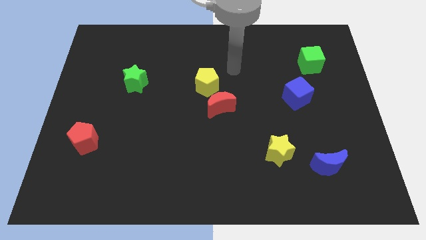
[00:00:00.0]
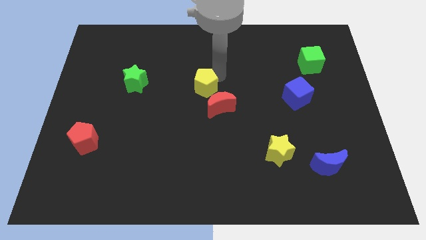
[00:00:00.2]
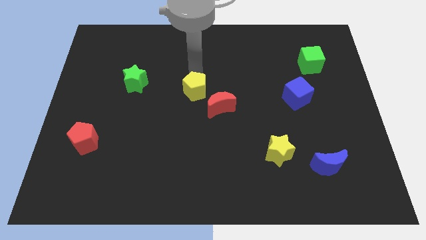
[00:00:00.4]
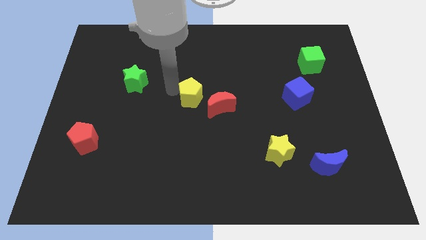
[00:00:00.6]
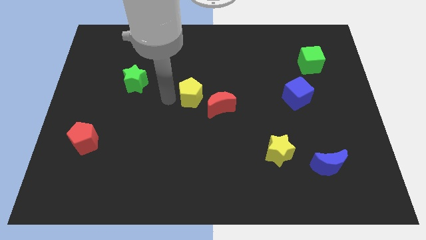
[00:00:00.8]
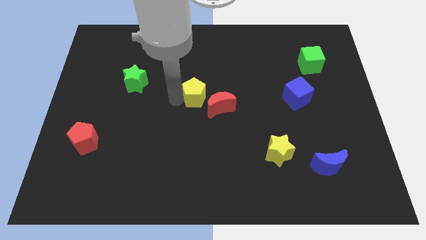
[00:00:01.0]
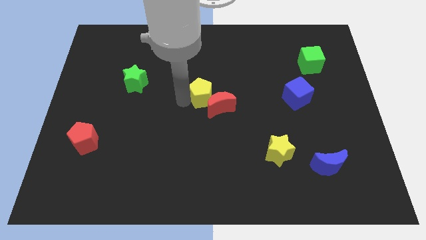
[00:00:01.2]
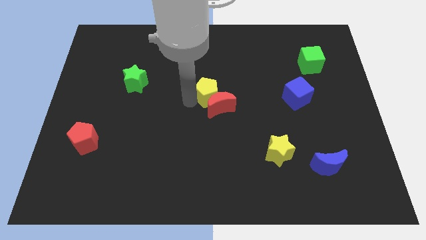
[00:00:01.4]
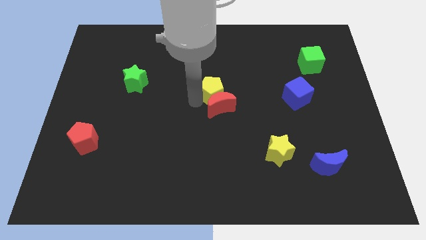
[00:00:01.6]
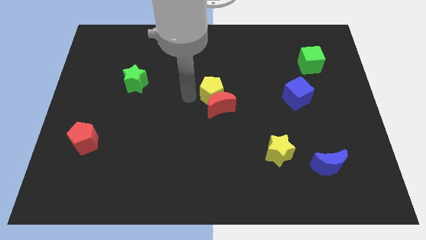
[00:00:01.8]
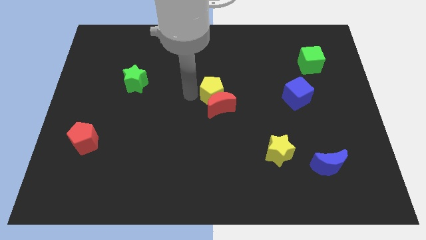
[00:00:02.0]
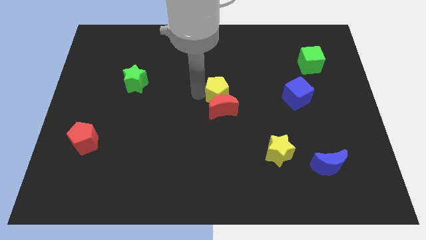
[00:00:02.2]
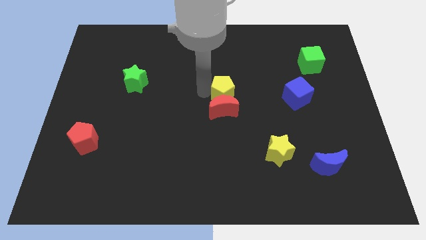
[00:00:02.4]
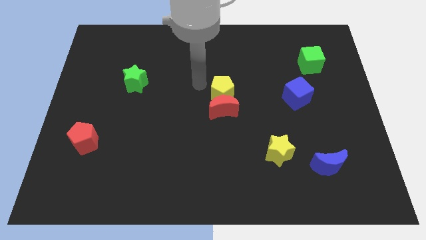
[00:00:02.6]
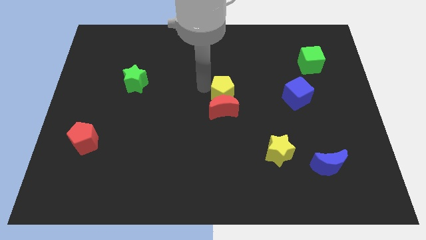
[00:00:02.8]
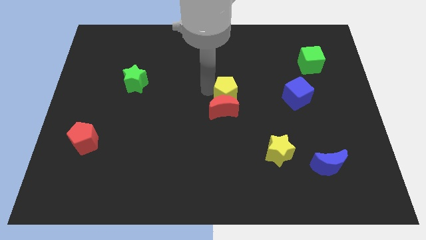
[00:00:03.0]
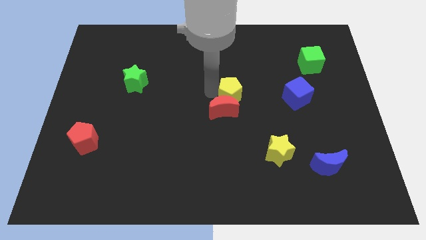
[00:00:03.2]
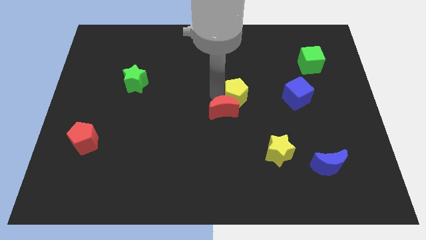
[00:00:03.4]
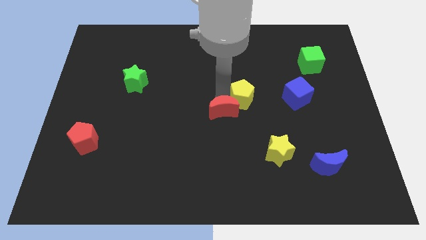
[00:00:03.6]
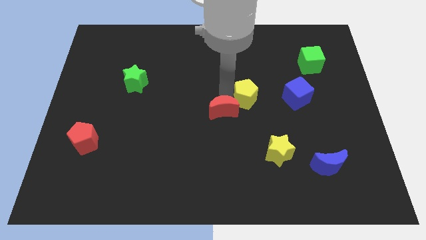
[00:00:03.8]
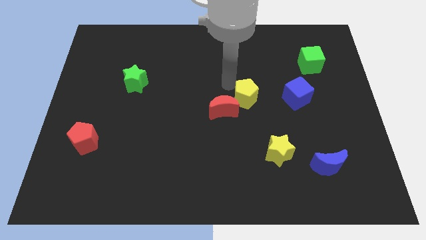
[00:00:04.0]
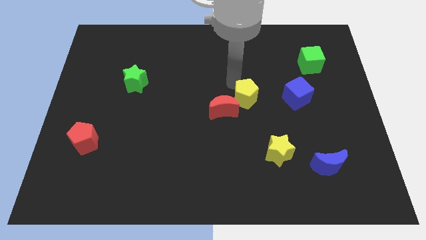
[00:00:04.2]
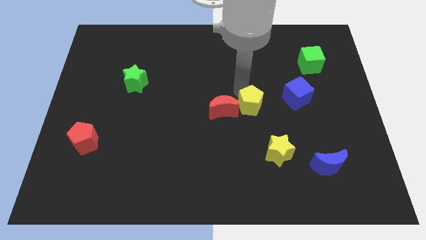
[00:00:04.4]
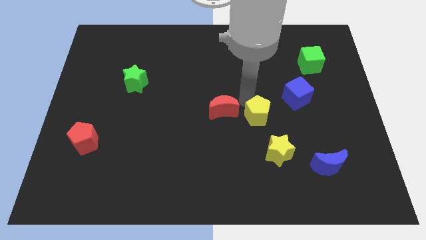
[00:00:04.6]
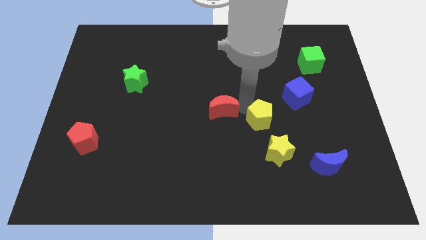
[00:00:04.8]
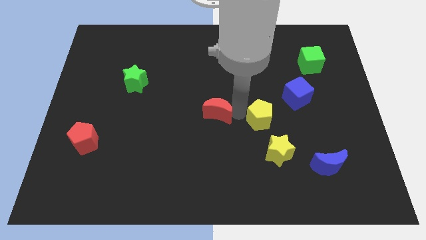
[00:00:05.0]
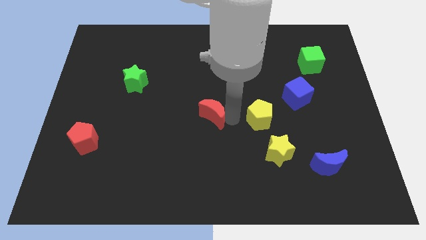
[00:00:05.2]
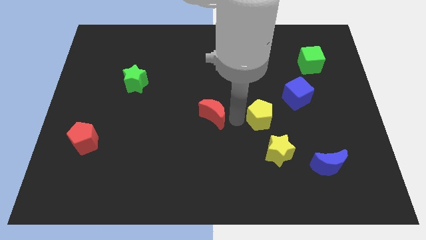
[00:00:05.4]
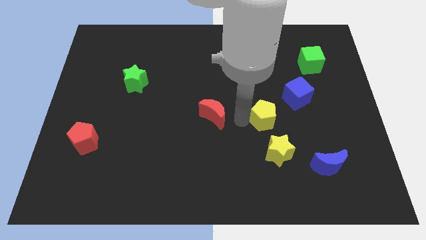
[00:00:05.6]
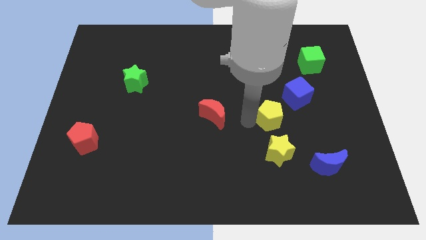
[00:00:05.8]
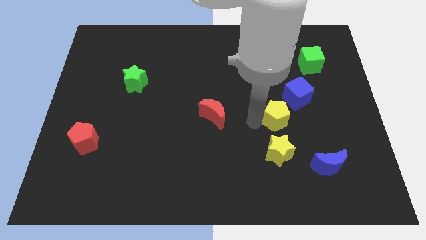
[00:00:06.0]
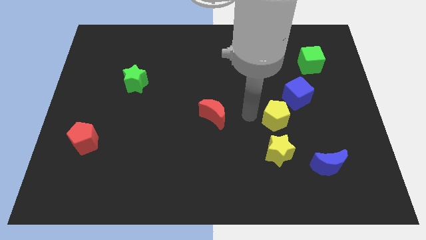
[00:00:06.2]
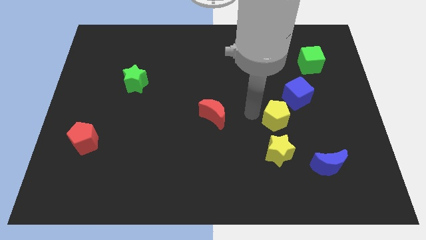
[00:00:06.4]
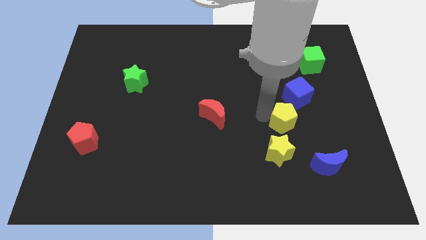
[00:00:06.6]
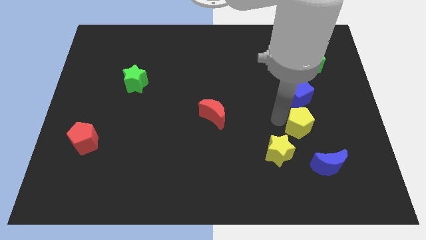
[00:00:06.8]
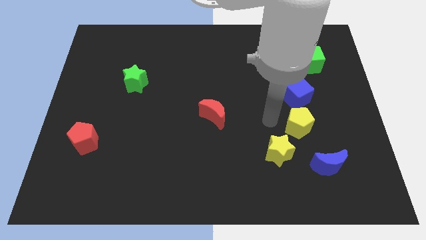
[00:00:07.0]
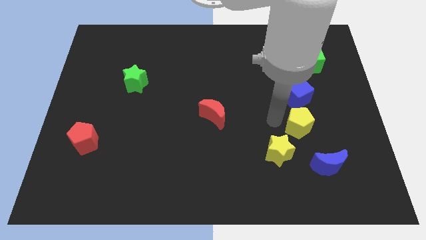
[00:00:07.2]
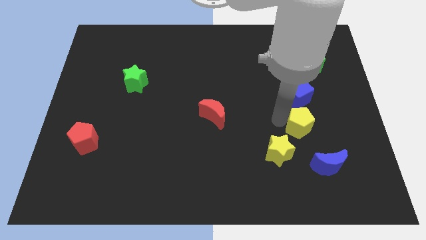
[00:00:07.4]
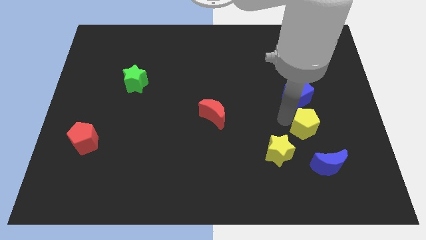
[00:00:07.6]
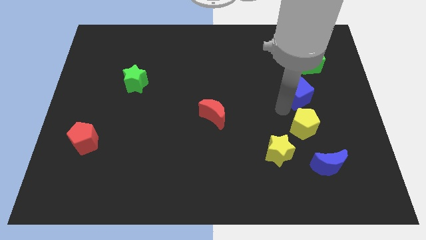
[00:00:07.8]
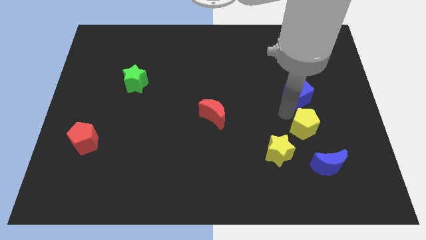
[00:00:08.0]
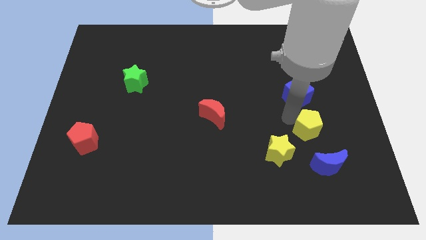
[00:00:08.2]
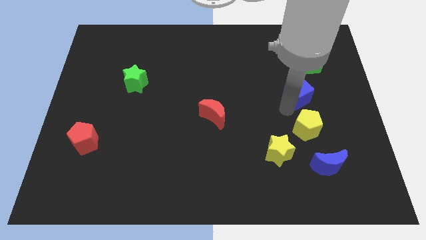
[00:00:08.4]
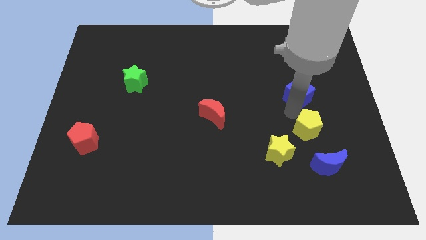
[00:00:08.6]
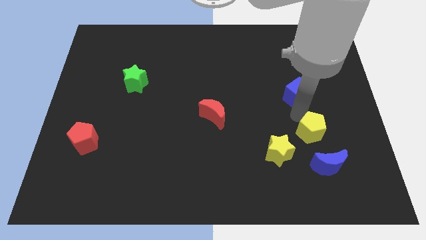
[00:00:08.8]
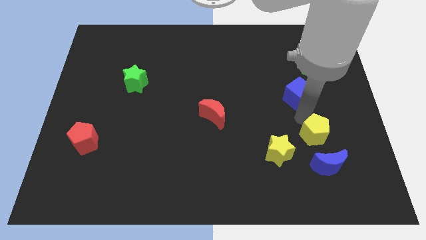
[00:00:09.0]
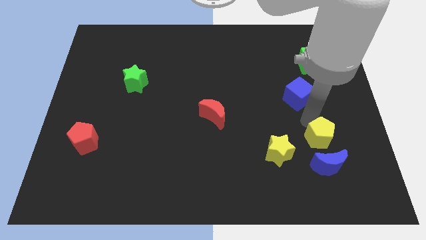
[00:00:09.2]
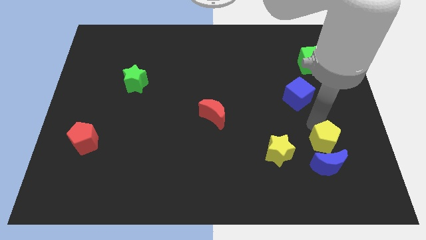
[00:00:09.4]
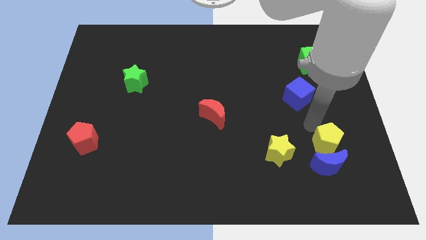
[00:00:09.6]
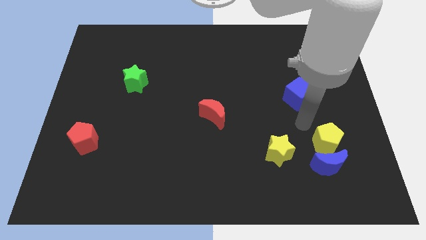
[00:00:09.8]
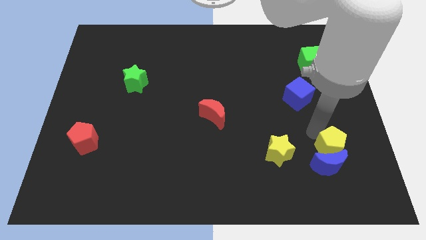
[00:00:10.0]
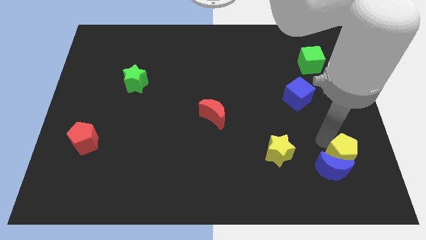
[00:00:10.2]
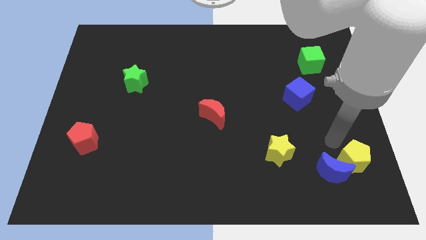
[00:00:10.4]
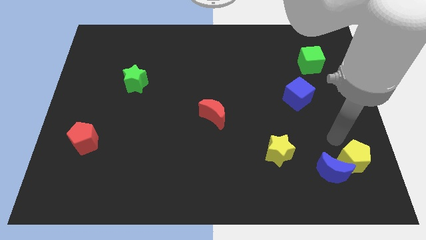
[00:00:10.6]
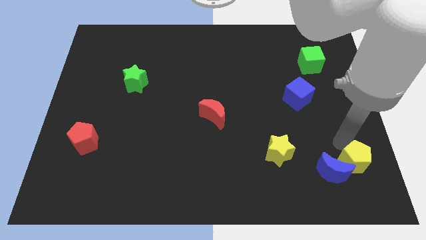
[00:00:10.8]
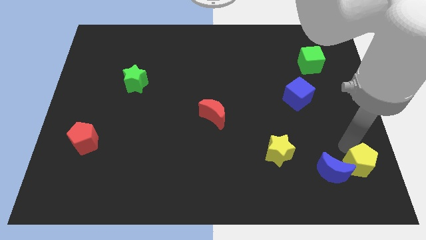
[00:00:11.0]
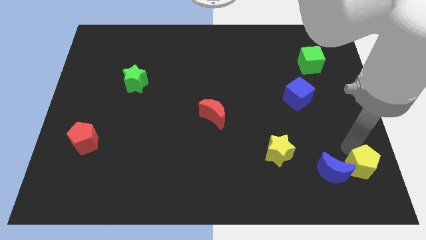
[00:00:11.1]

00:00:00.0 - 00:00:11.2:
move the yellow pentagon to the bottom right of the board

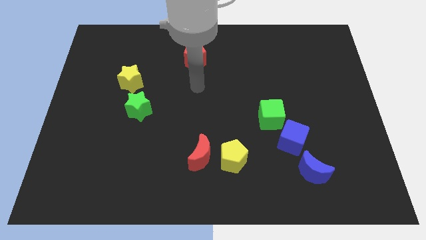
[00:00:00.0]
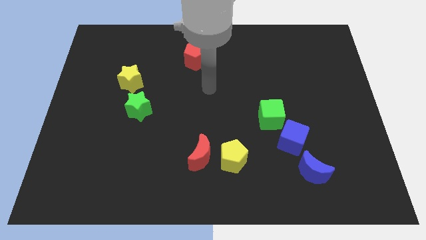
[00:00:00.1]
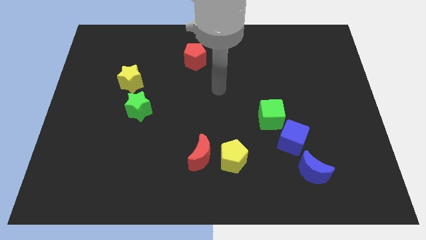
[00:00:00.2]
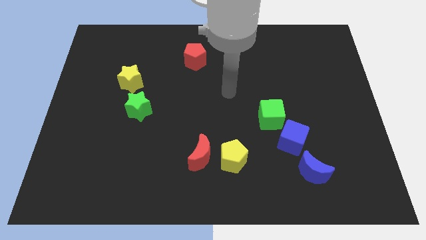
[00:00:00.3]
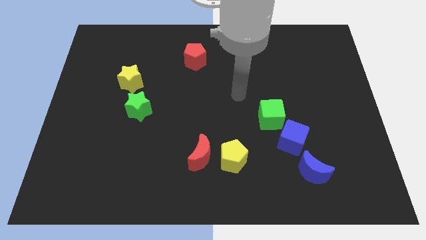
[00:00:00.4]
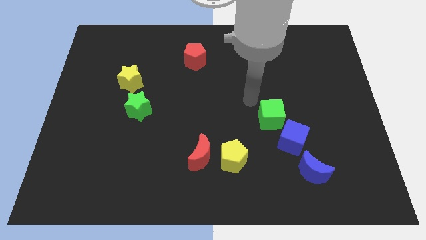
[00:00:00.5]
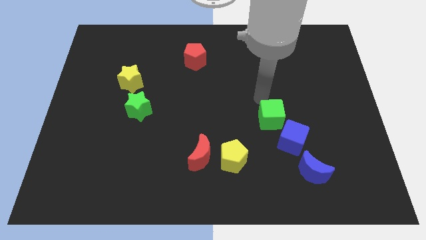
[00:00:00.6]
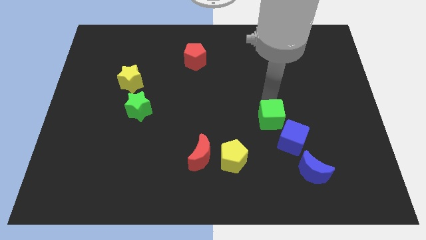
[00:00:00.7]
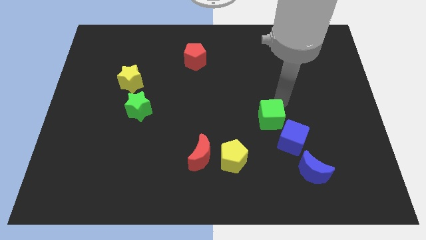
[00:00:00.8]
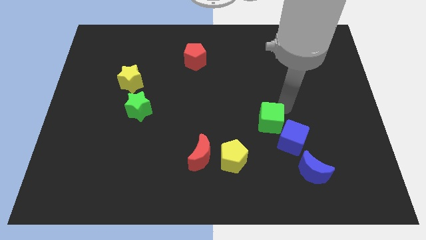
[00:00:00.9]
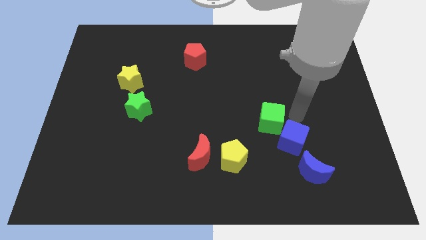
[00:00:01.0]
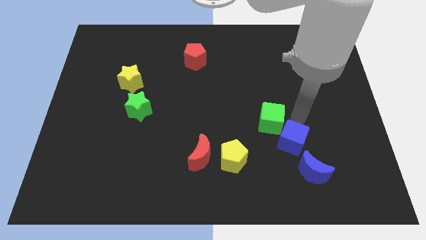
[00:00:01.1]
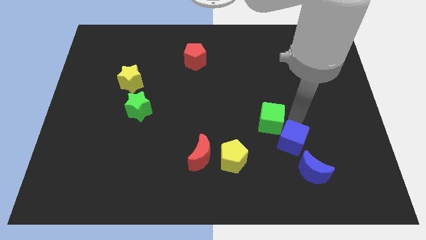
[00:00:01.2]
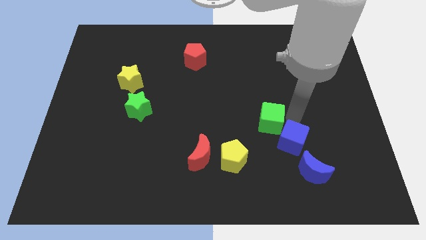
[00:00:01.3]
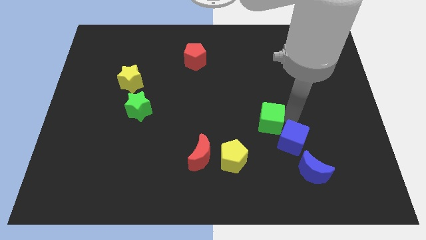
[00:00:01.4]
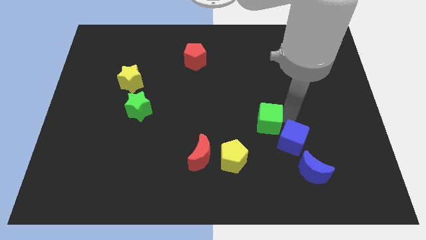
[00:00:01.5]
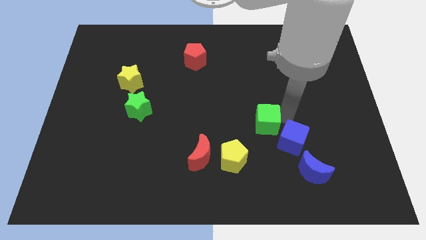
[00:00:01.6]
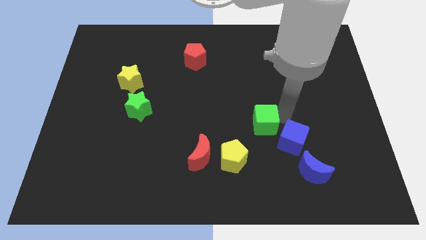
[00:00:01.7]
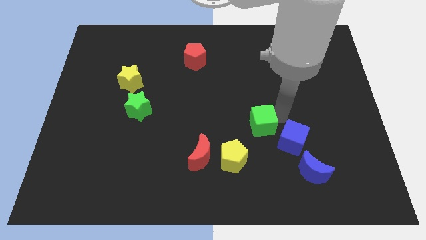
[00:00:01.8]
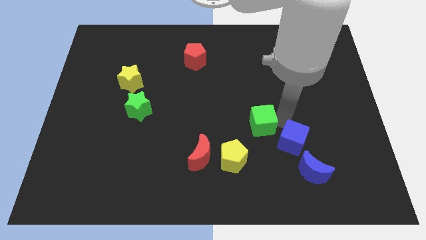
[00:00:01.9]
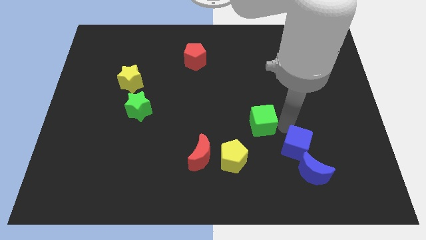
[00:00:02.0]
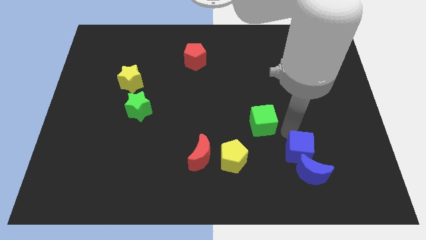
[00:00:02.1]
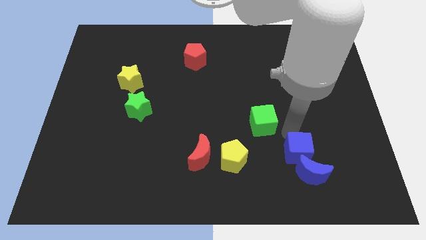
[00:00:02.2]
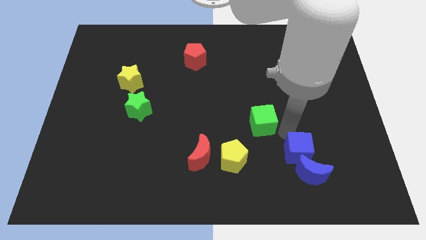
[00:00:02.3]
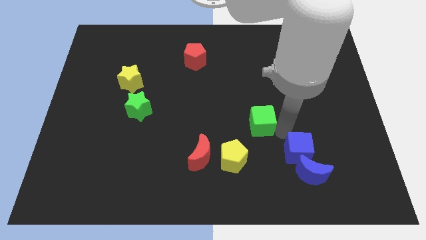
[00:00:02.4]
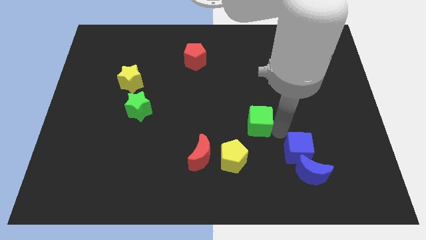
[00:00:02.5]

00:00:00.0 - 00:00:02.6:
put the green cube to the middle of the board
